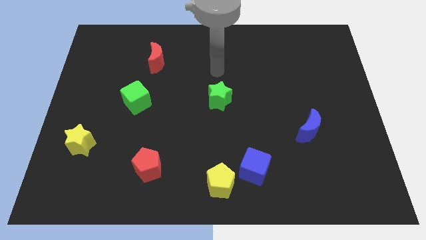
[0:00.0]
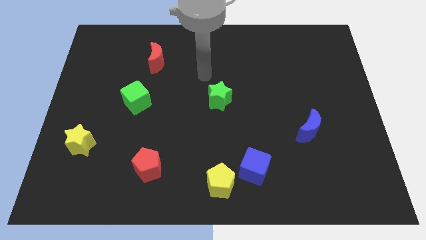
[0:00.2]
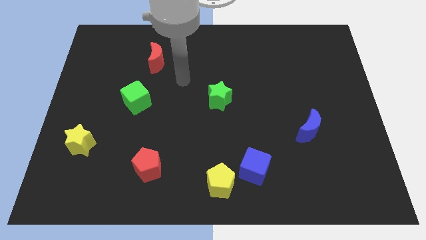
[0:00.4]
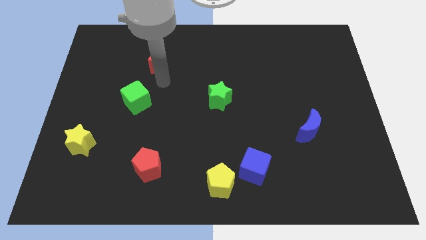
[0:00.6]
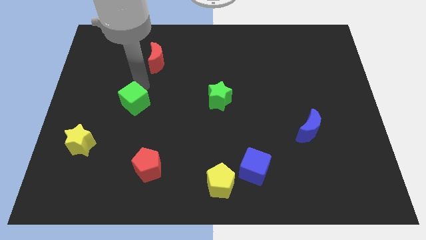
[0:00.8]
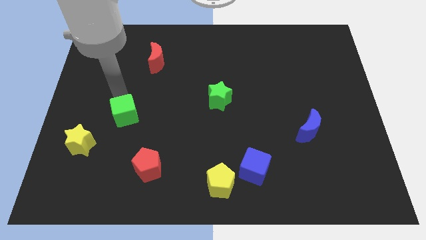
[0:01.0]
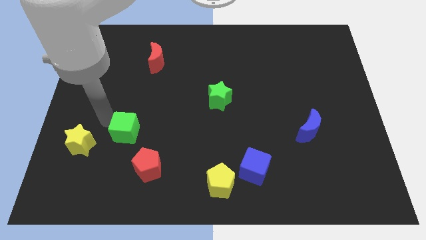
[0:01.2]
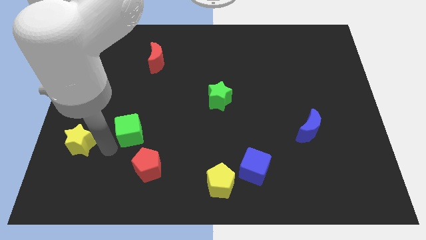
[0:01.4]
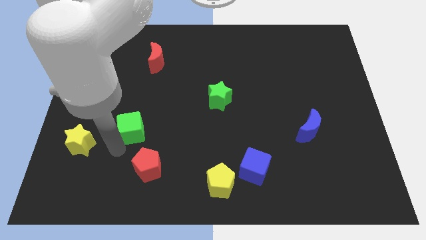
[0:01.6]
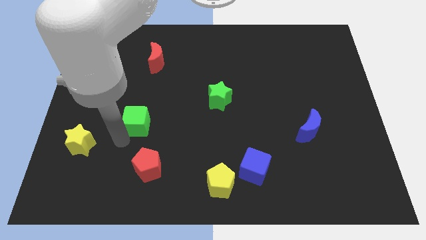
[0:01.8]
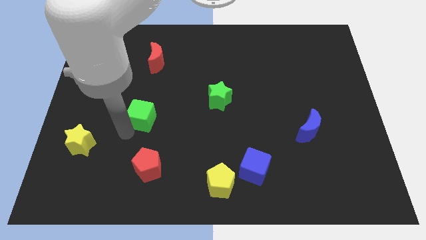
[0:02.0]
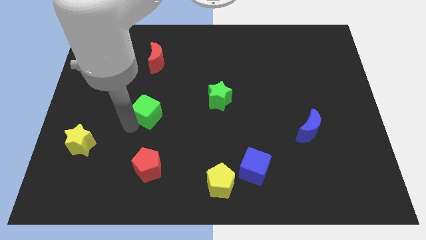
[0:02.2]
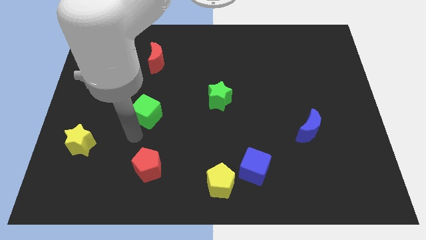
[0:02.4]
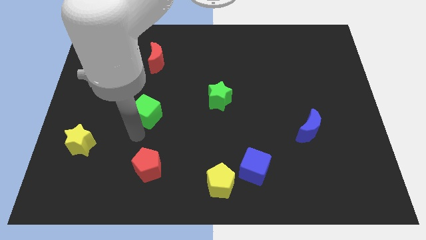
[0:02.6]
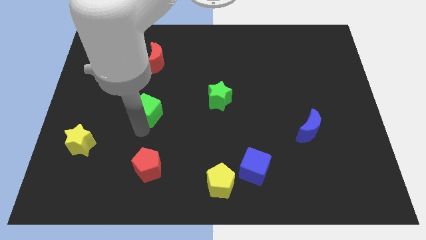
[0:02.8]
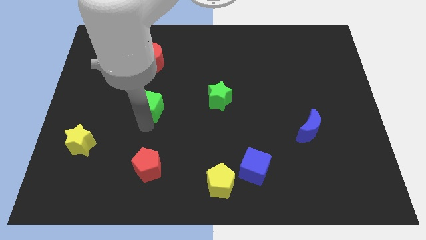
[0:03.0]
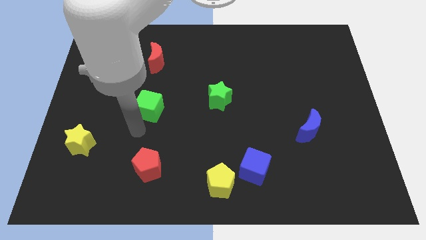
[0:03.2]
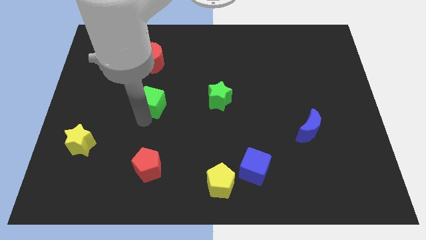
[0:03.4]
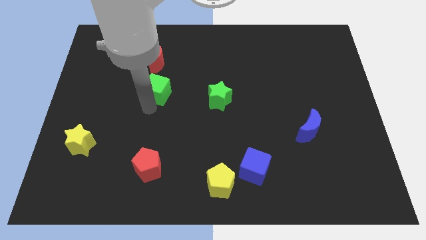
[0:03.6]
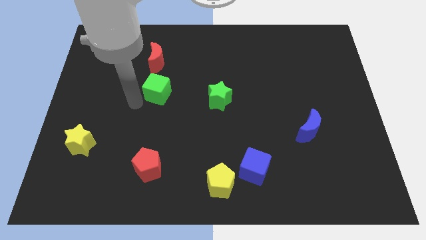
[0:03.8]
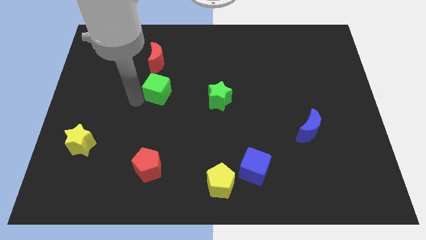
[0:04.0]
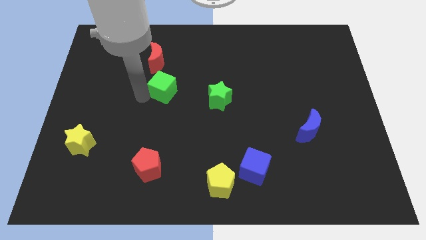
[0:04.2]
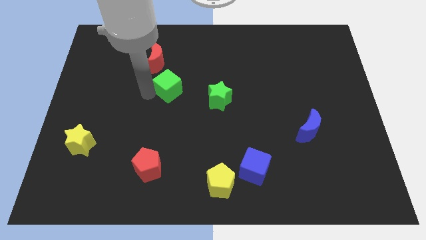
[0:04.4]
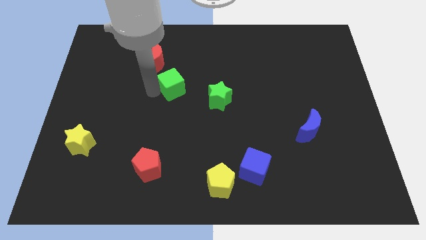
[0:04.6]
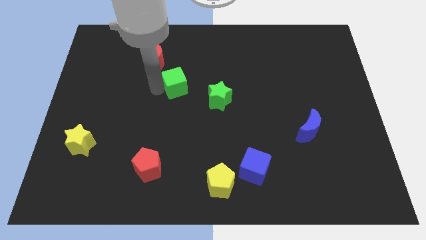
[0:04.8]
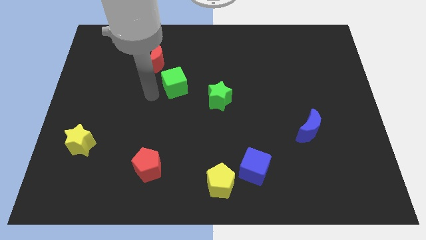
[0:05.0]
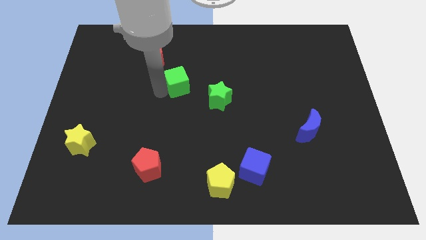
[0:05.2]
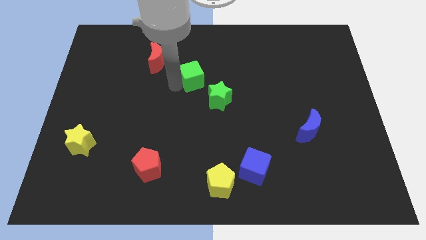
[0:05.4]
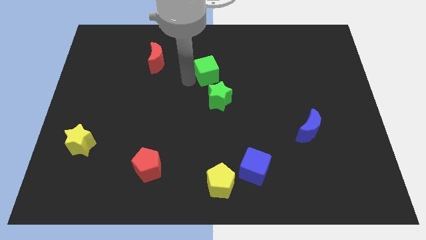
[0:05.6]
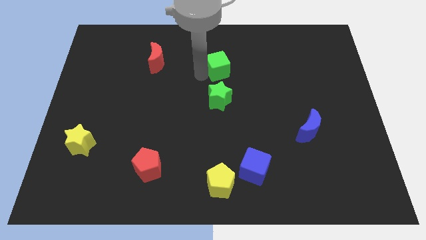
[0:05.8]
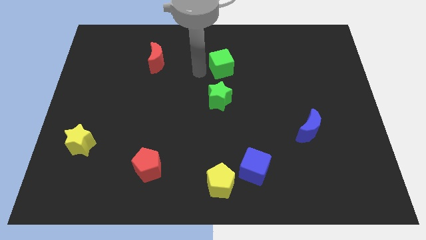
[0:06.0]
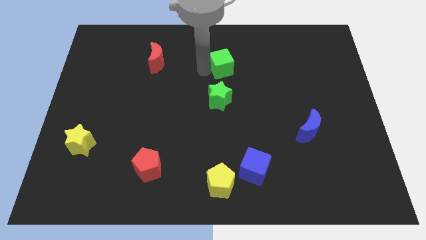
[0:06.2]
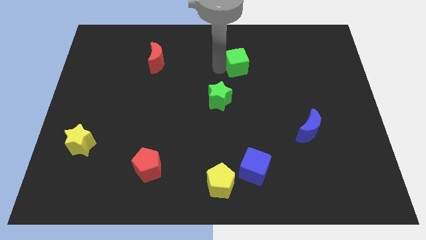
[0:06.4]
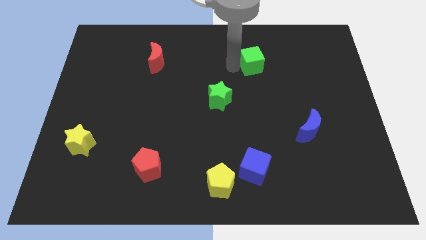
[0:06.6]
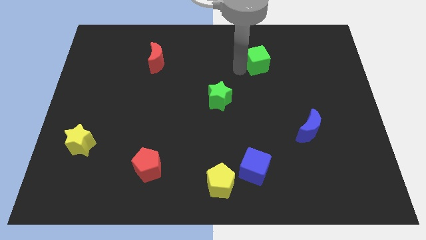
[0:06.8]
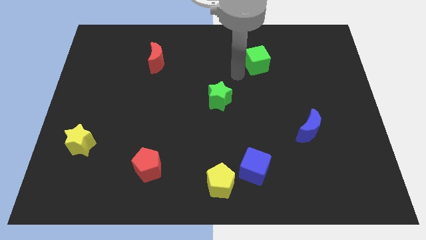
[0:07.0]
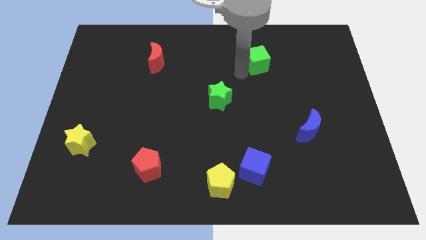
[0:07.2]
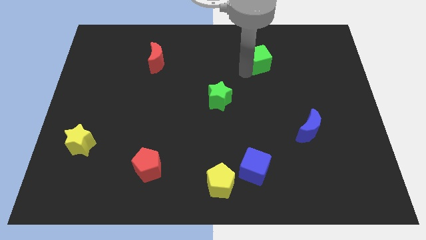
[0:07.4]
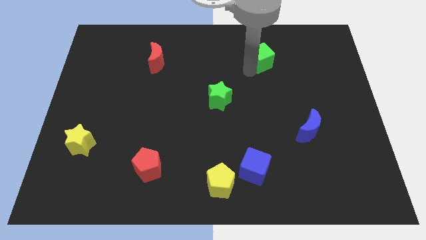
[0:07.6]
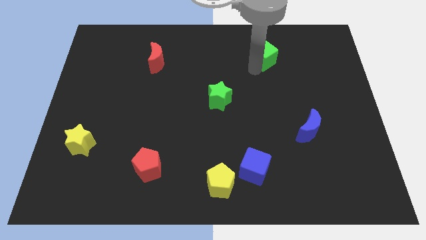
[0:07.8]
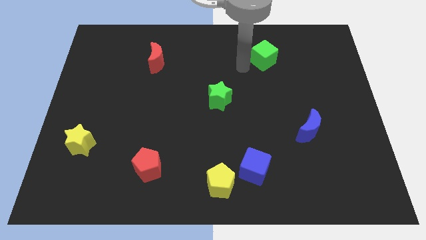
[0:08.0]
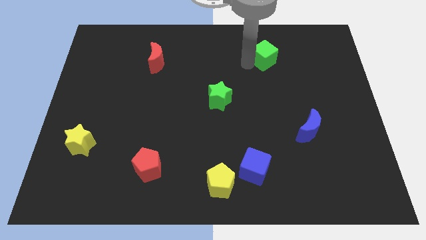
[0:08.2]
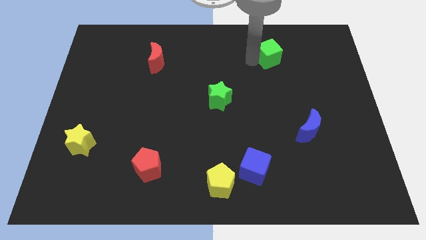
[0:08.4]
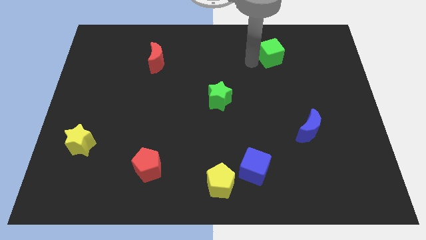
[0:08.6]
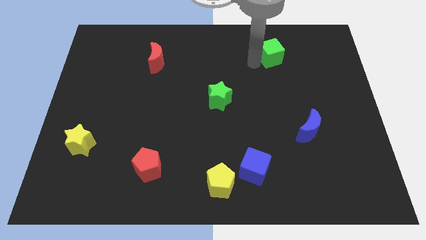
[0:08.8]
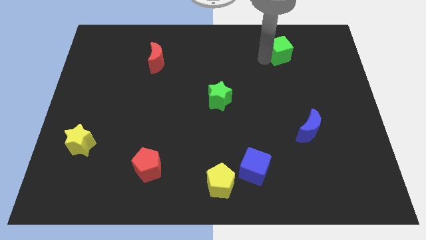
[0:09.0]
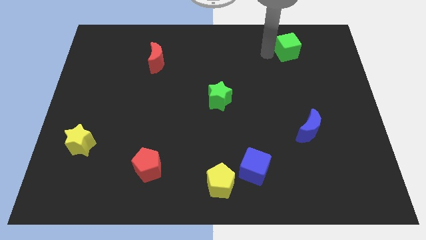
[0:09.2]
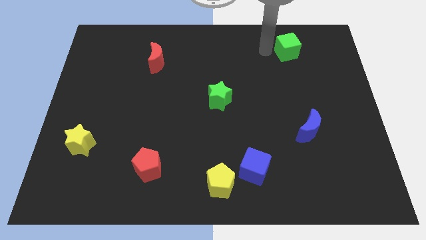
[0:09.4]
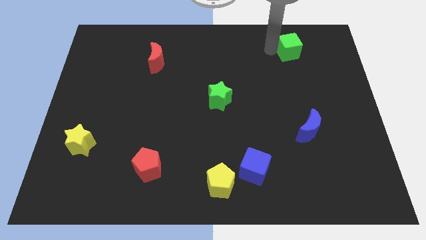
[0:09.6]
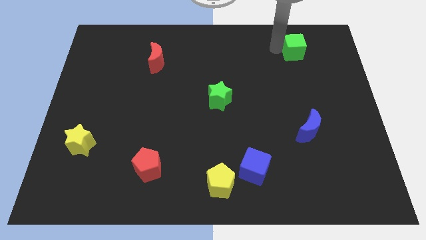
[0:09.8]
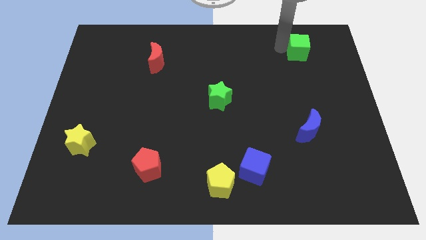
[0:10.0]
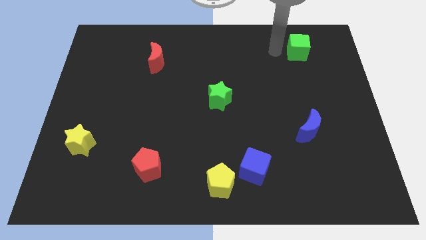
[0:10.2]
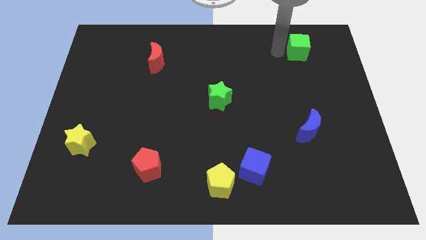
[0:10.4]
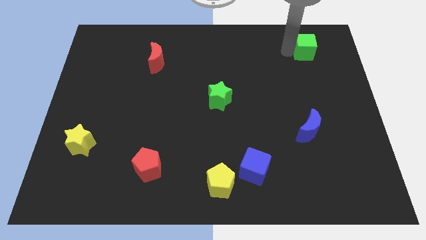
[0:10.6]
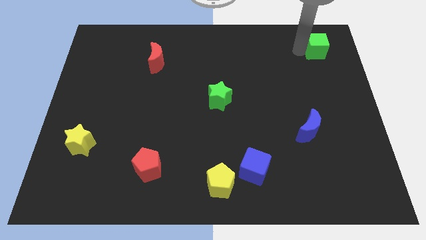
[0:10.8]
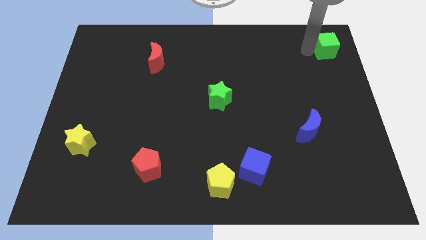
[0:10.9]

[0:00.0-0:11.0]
put the green cube to the top right
